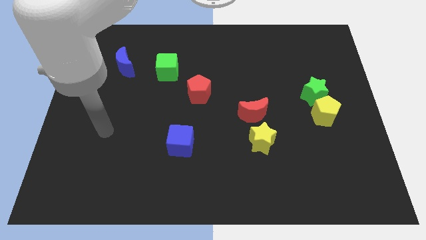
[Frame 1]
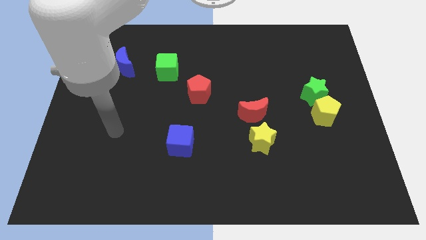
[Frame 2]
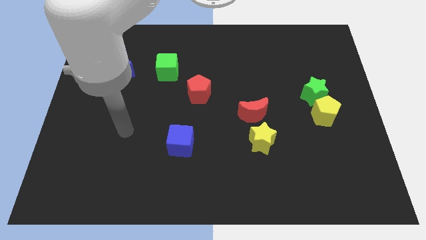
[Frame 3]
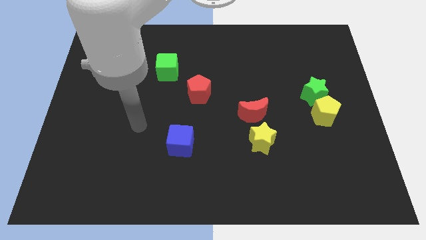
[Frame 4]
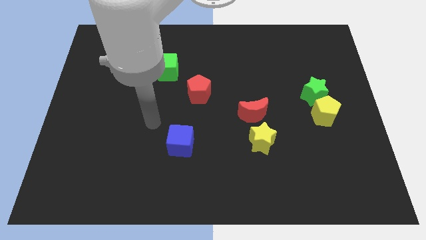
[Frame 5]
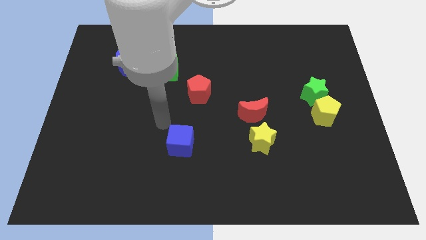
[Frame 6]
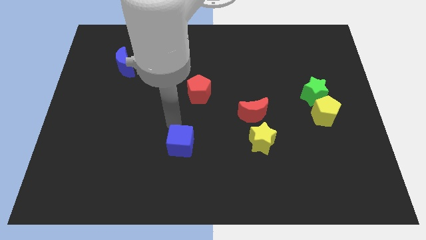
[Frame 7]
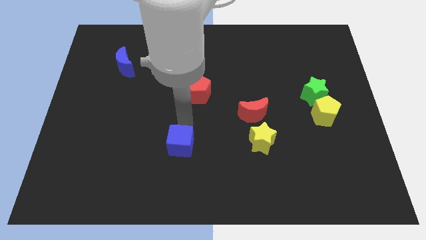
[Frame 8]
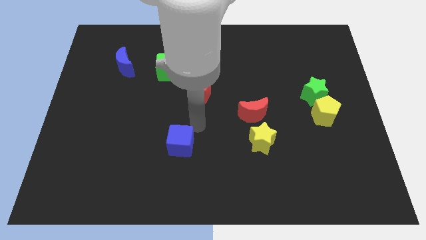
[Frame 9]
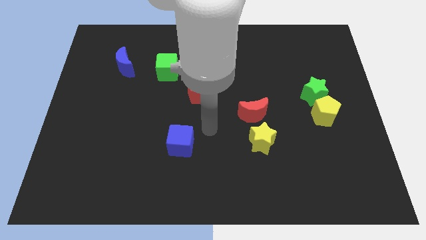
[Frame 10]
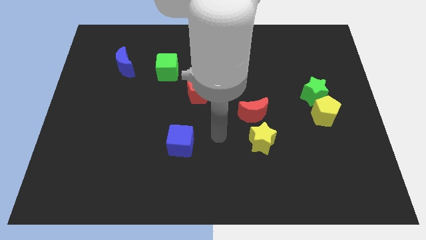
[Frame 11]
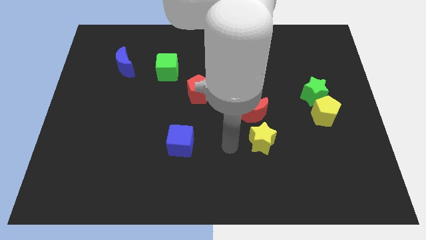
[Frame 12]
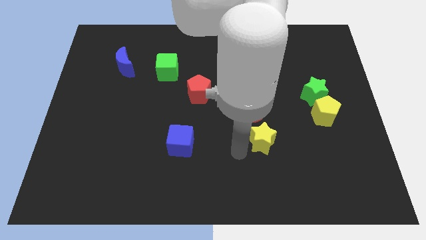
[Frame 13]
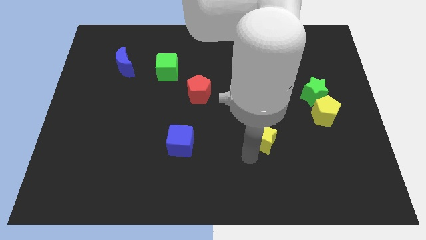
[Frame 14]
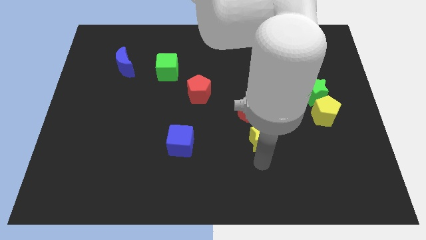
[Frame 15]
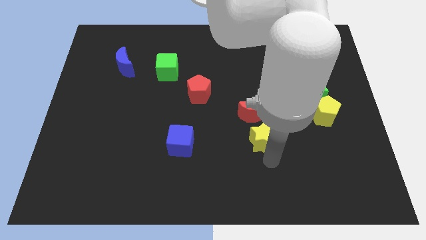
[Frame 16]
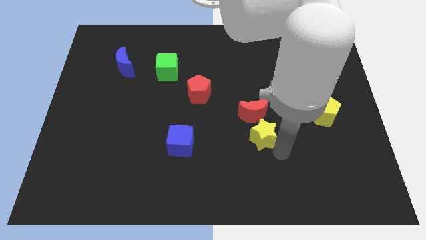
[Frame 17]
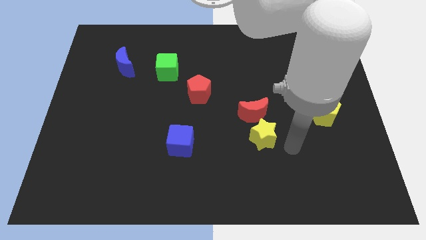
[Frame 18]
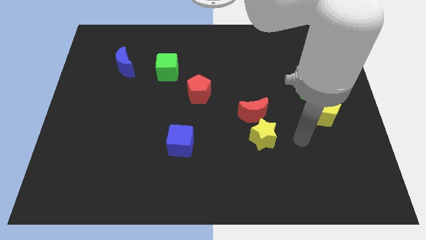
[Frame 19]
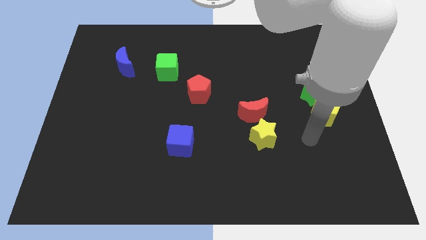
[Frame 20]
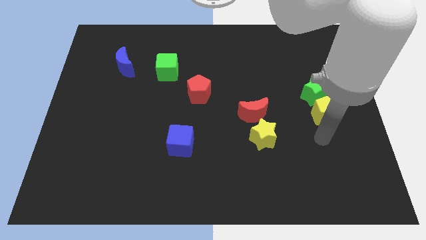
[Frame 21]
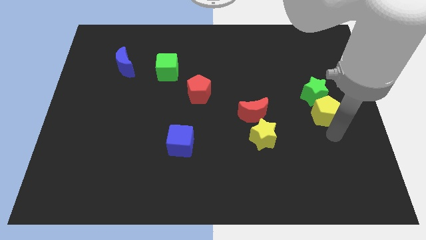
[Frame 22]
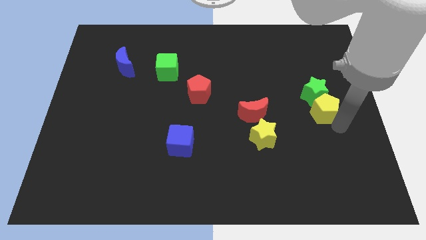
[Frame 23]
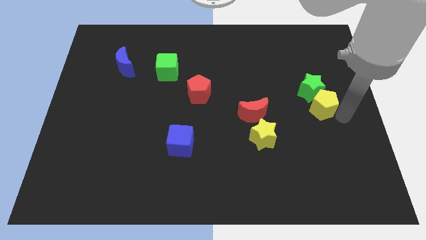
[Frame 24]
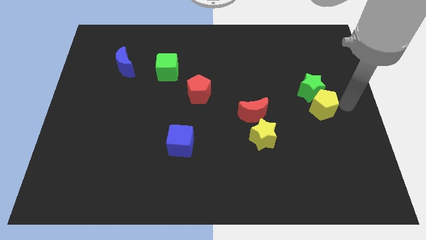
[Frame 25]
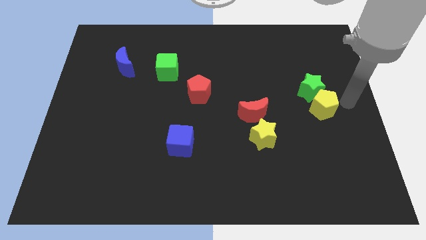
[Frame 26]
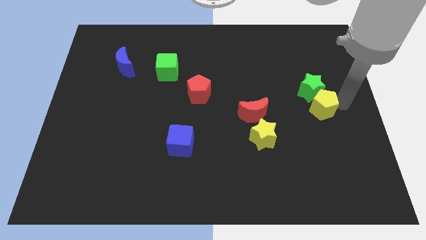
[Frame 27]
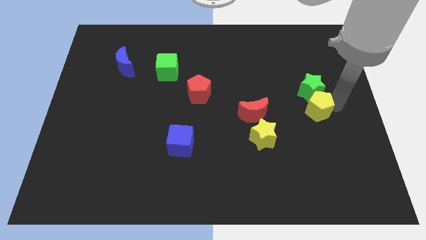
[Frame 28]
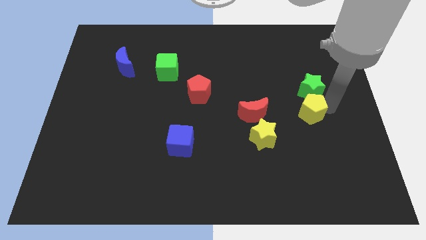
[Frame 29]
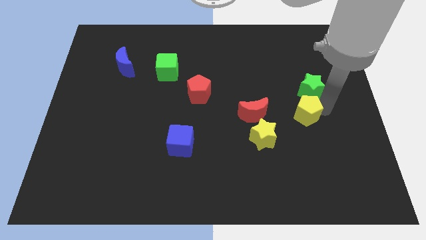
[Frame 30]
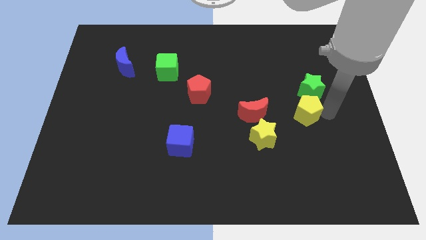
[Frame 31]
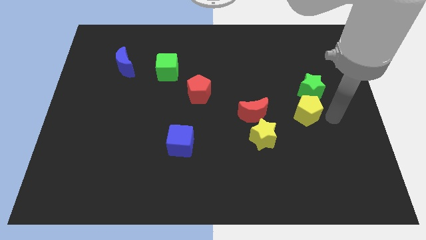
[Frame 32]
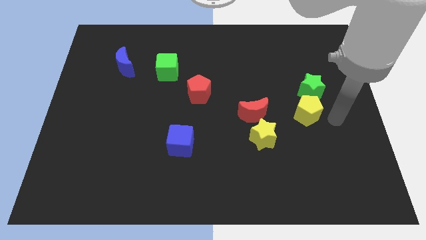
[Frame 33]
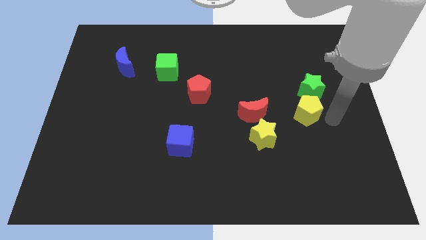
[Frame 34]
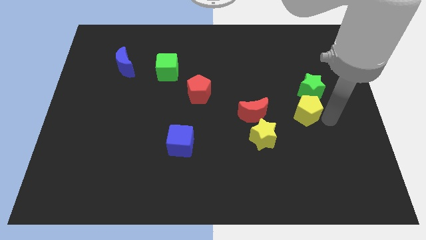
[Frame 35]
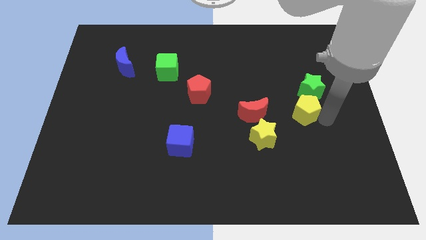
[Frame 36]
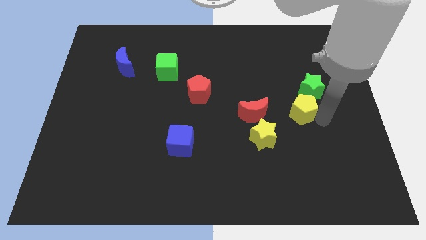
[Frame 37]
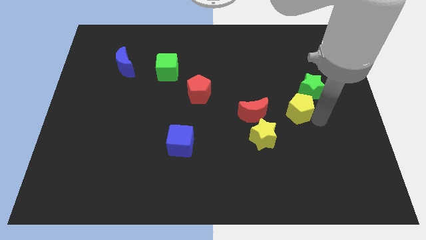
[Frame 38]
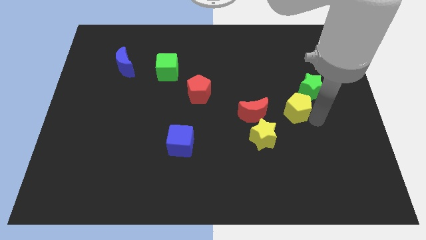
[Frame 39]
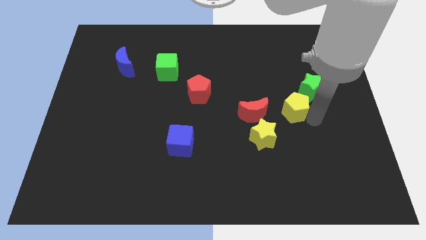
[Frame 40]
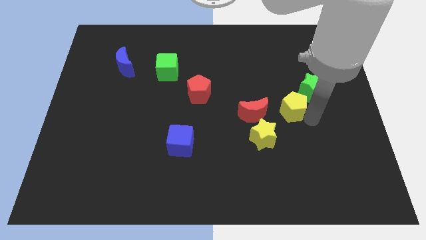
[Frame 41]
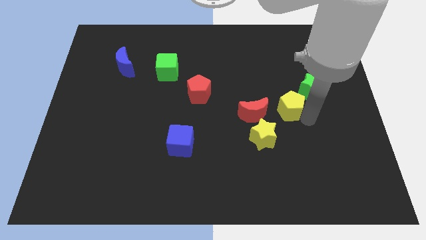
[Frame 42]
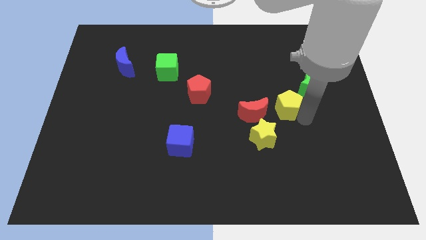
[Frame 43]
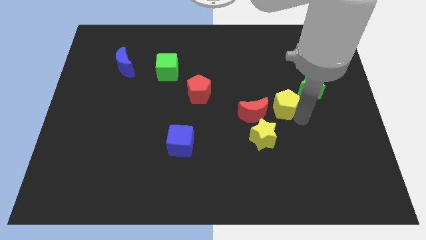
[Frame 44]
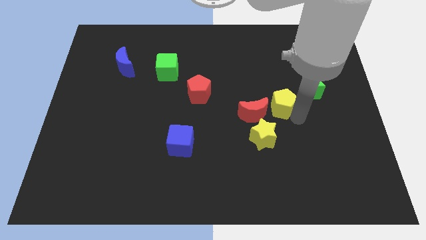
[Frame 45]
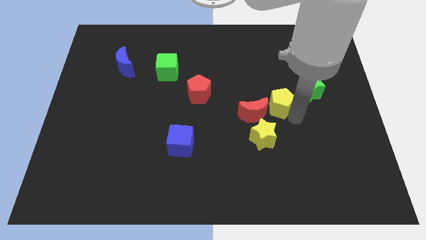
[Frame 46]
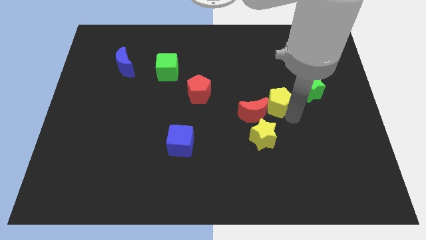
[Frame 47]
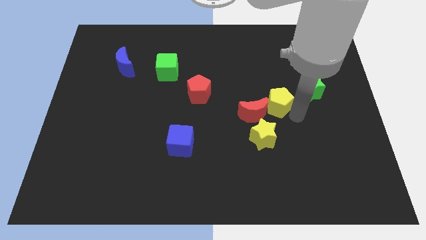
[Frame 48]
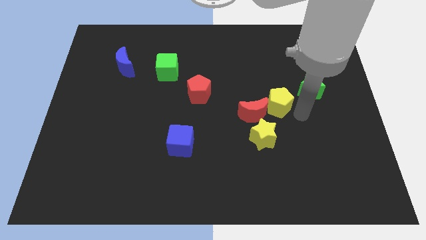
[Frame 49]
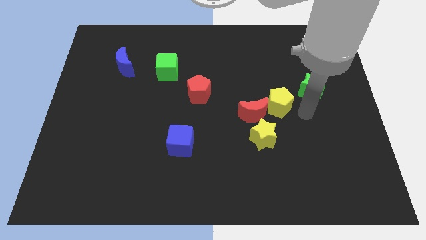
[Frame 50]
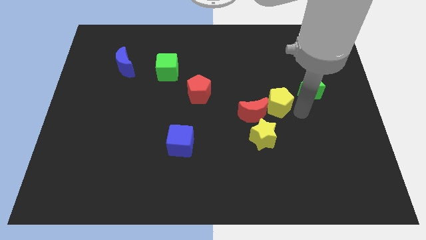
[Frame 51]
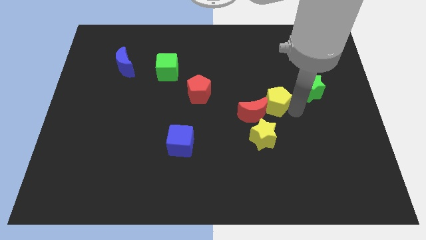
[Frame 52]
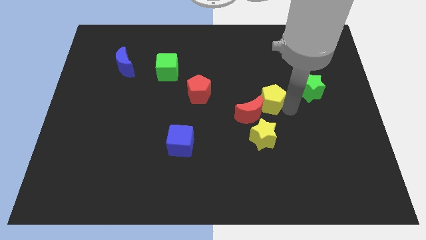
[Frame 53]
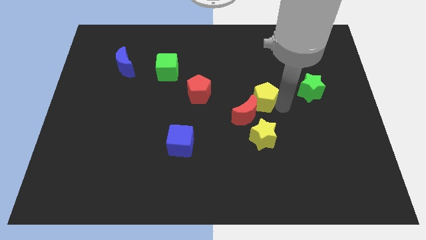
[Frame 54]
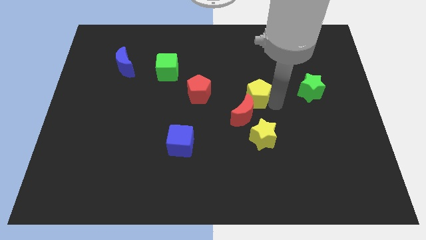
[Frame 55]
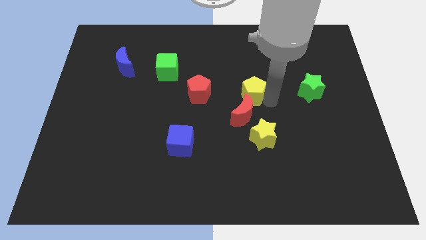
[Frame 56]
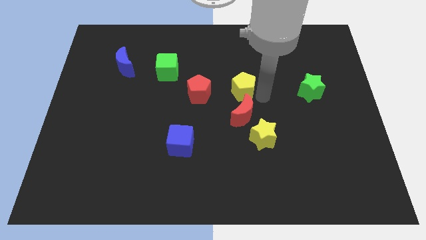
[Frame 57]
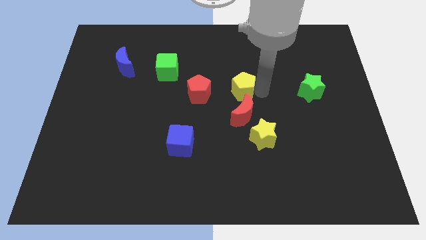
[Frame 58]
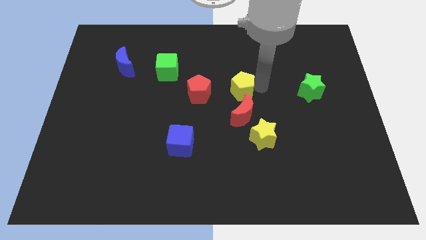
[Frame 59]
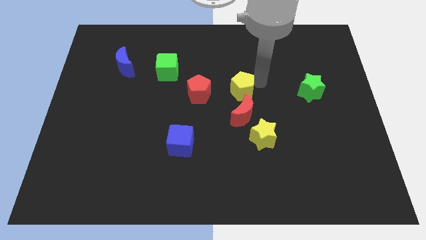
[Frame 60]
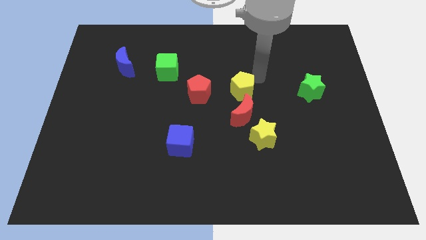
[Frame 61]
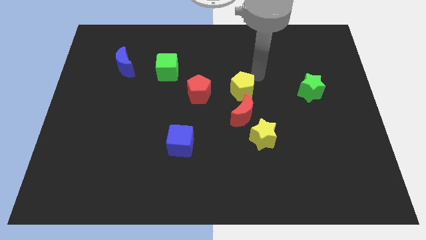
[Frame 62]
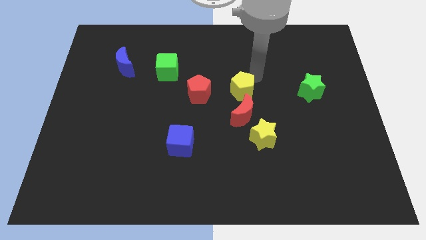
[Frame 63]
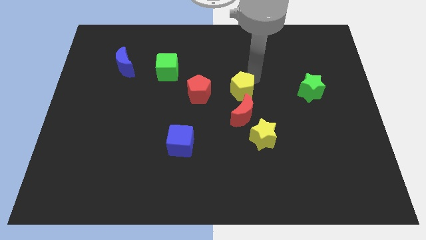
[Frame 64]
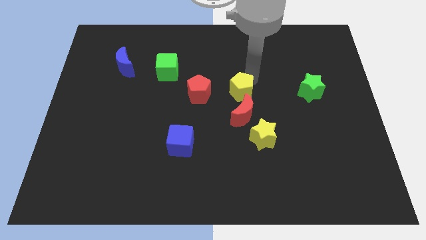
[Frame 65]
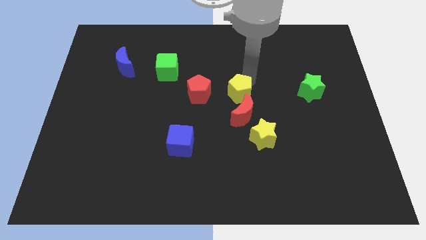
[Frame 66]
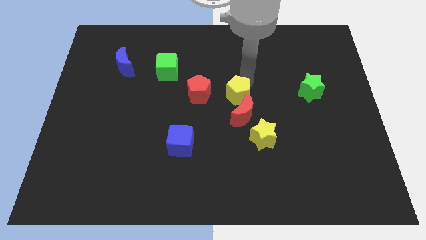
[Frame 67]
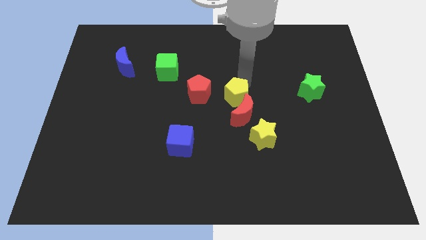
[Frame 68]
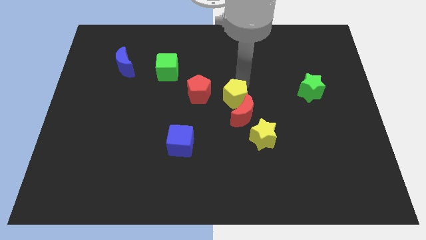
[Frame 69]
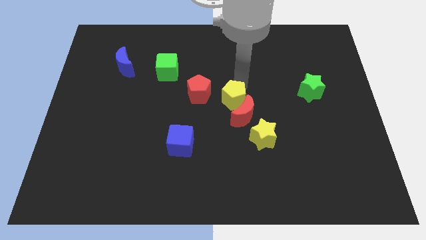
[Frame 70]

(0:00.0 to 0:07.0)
push the yellow pentagon left

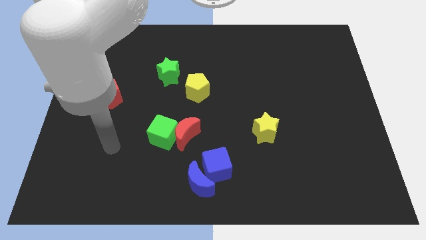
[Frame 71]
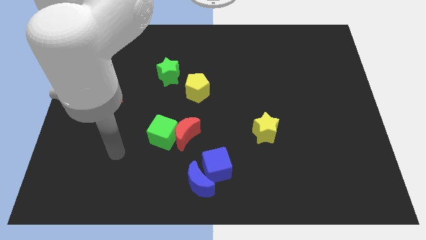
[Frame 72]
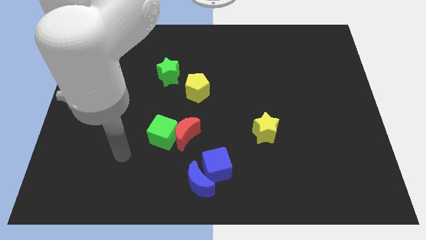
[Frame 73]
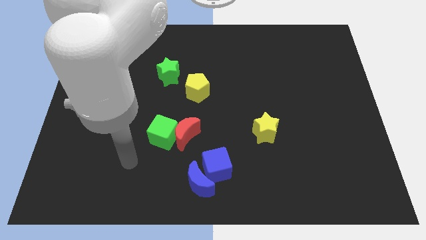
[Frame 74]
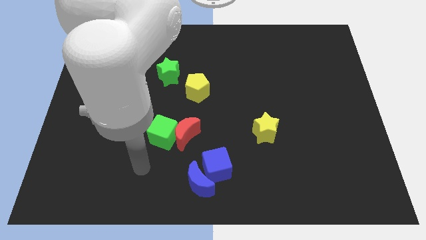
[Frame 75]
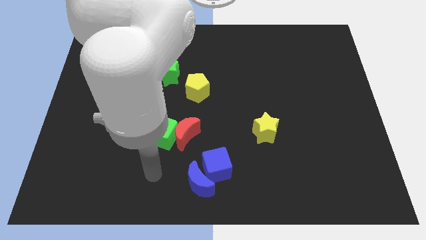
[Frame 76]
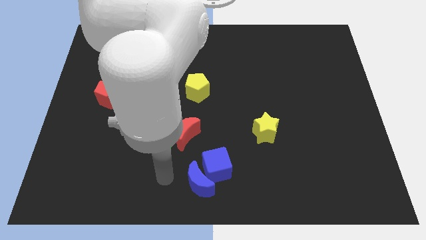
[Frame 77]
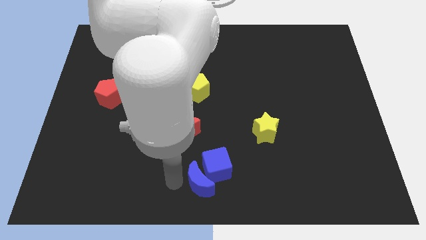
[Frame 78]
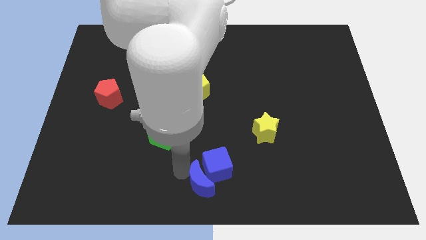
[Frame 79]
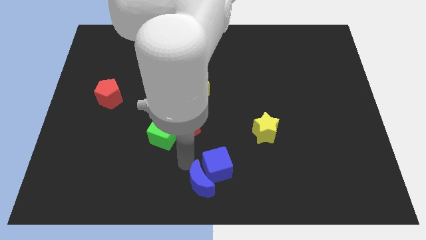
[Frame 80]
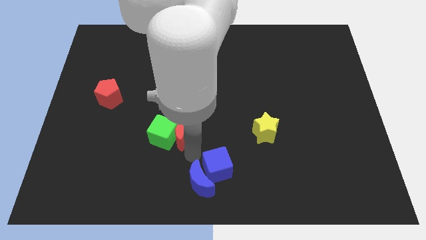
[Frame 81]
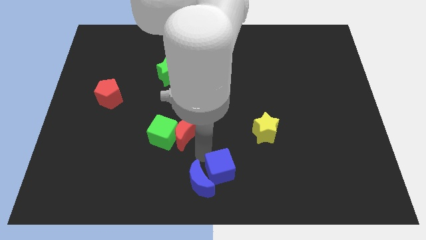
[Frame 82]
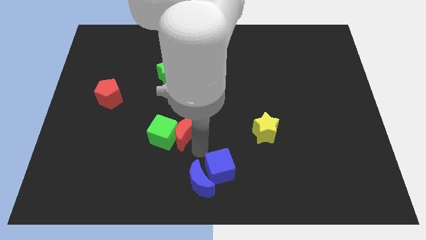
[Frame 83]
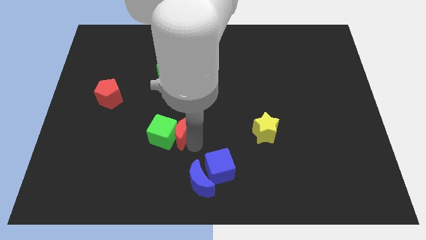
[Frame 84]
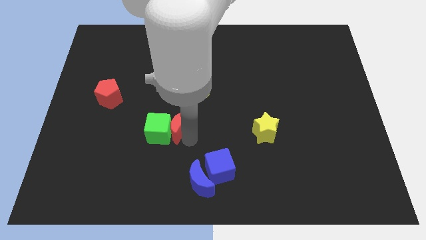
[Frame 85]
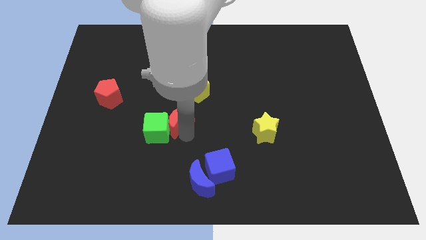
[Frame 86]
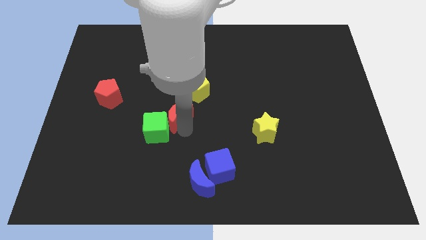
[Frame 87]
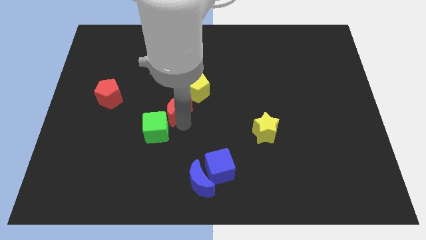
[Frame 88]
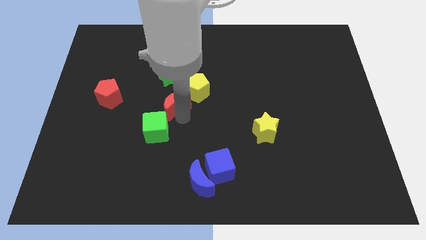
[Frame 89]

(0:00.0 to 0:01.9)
slide the red moon up and left diagonally slightly
